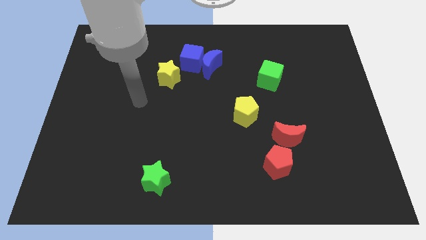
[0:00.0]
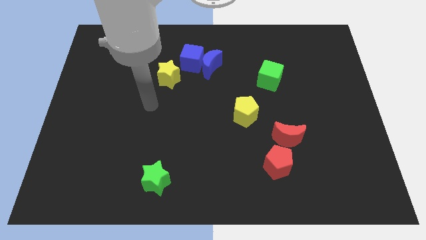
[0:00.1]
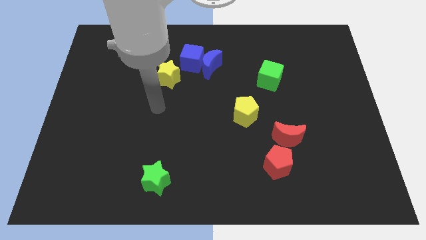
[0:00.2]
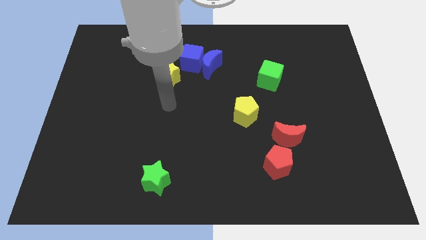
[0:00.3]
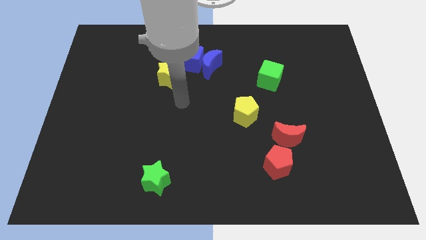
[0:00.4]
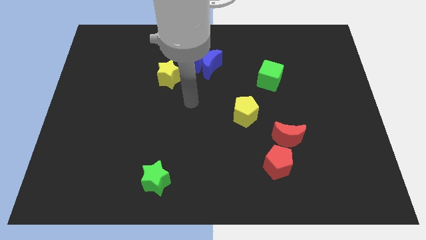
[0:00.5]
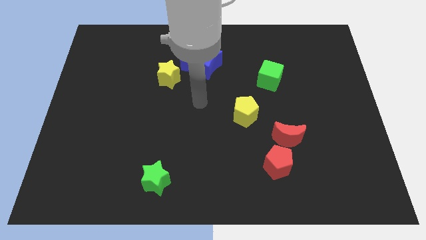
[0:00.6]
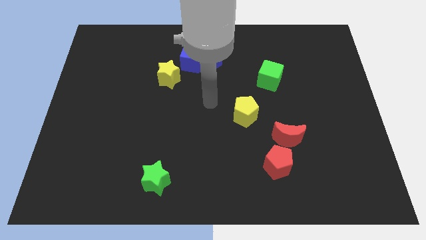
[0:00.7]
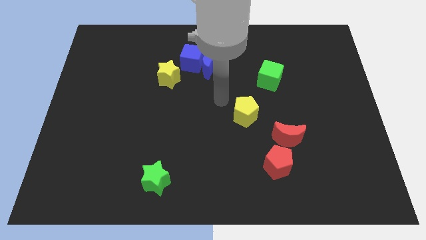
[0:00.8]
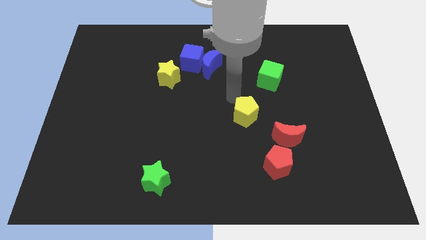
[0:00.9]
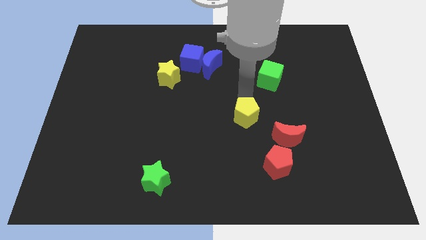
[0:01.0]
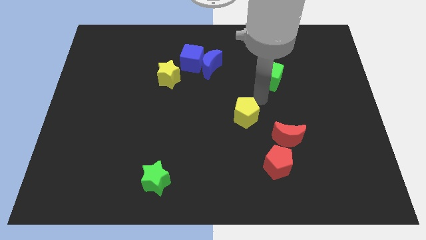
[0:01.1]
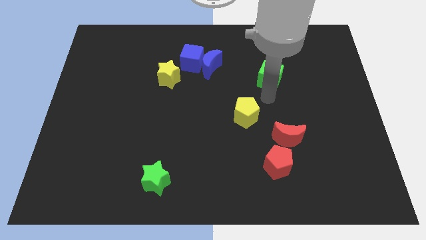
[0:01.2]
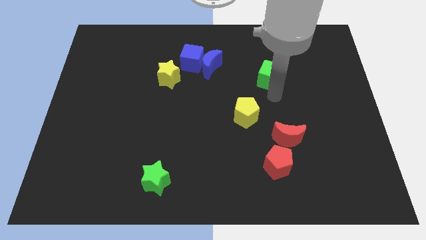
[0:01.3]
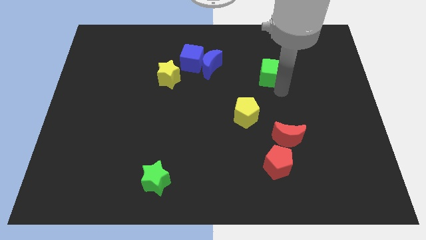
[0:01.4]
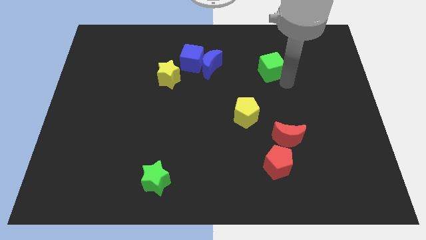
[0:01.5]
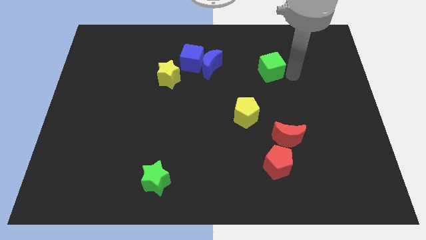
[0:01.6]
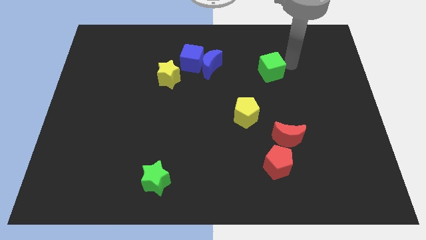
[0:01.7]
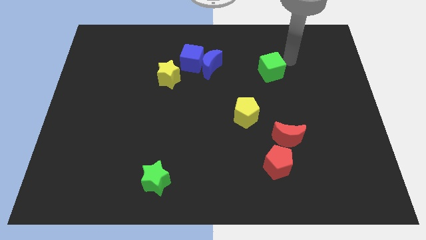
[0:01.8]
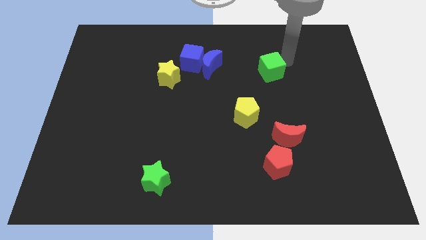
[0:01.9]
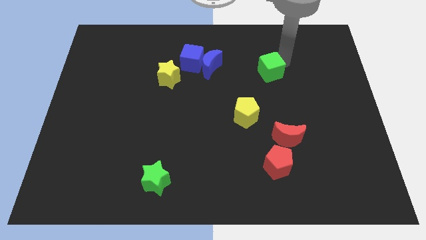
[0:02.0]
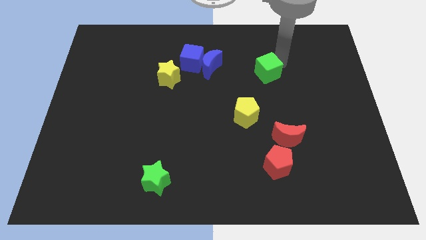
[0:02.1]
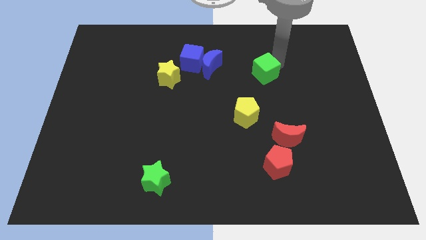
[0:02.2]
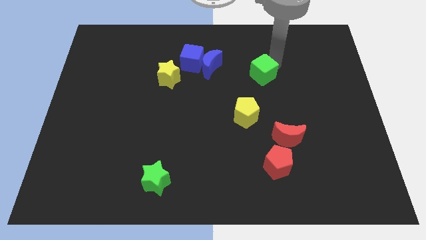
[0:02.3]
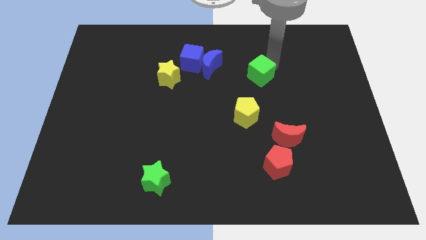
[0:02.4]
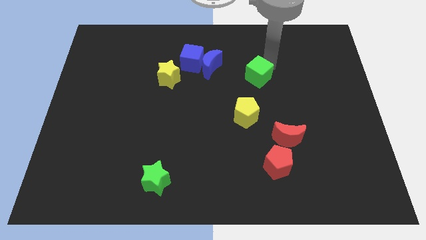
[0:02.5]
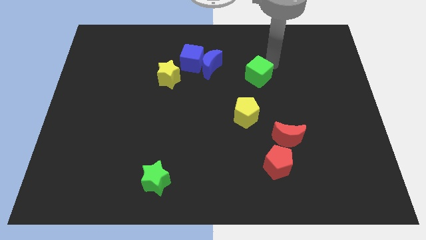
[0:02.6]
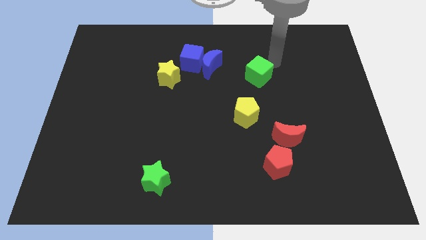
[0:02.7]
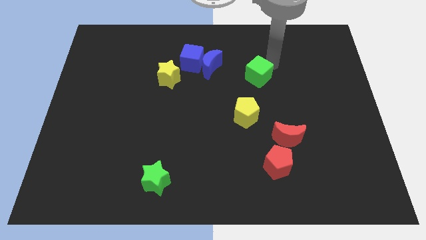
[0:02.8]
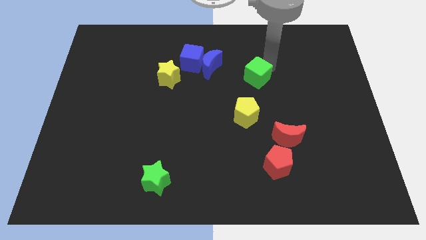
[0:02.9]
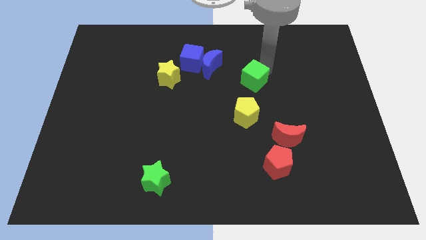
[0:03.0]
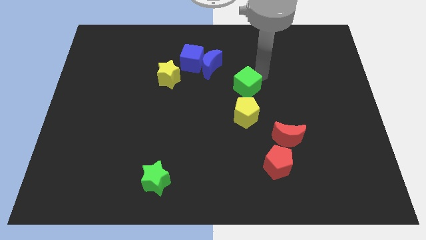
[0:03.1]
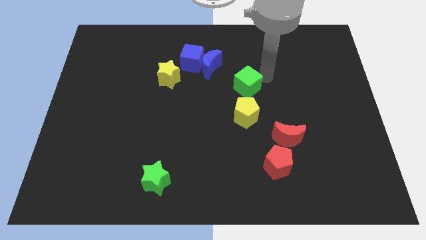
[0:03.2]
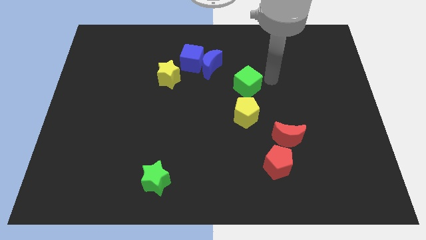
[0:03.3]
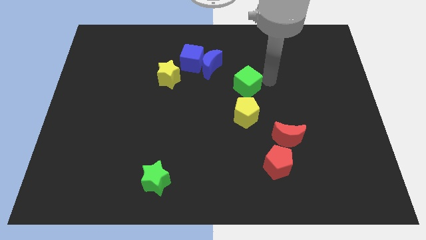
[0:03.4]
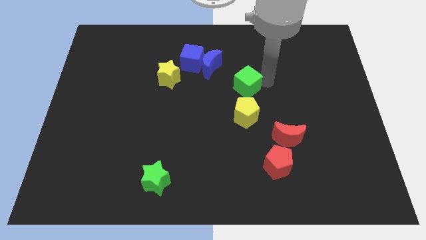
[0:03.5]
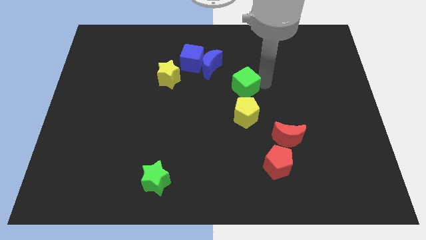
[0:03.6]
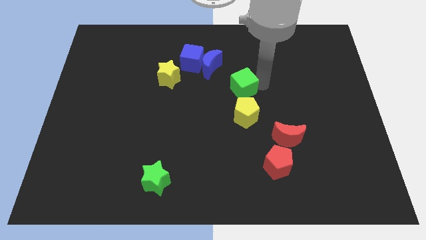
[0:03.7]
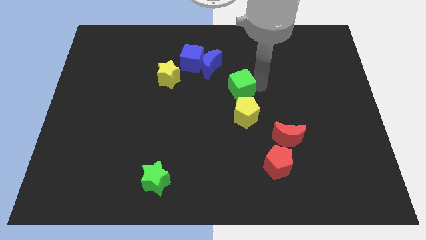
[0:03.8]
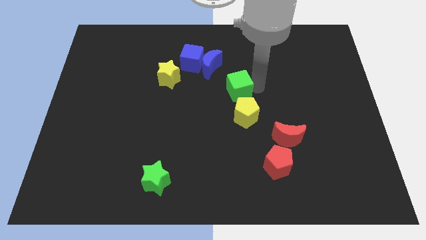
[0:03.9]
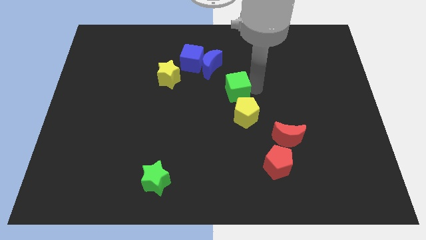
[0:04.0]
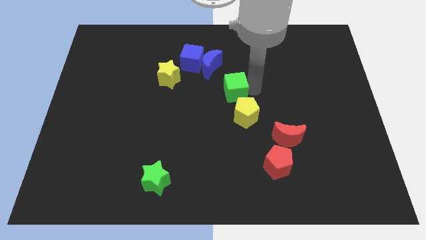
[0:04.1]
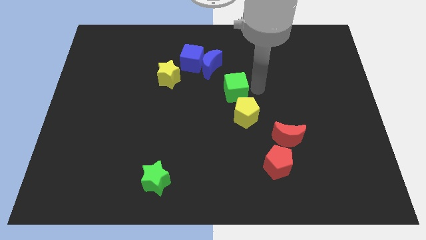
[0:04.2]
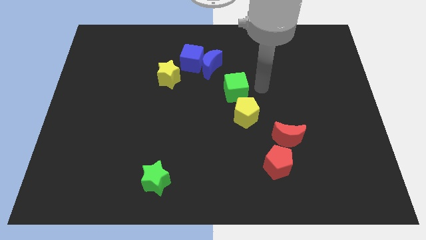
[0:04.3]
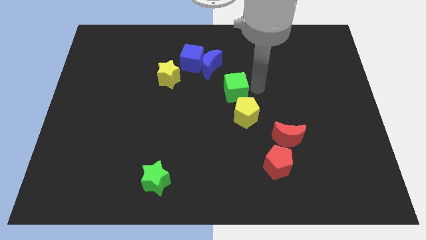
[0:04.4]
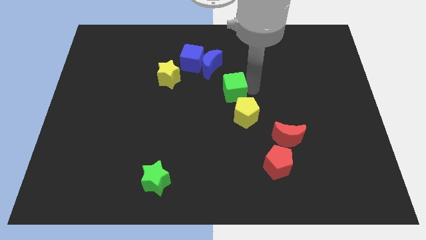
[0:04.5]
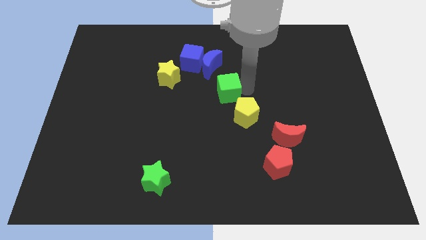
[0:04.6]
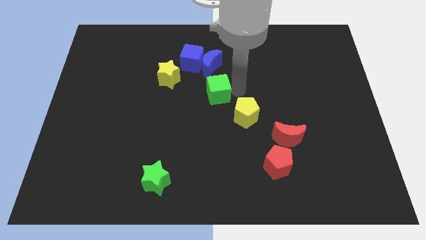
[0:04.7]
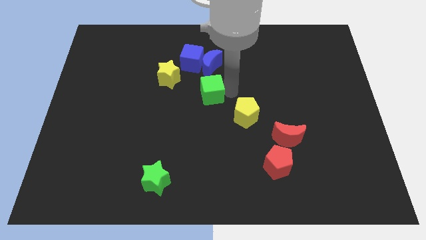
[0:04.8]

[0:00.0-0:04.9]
move the green cube to the bottom right of the yellow star

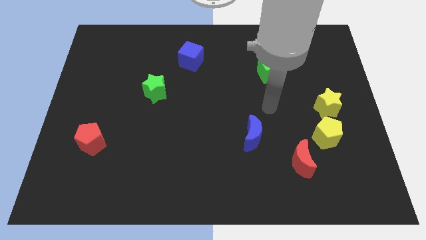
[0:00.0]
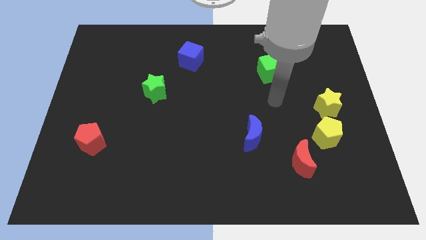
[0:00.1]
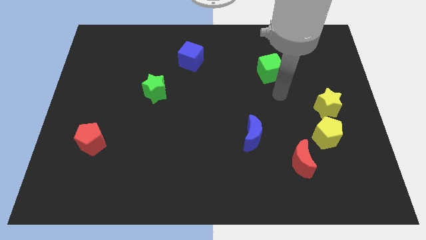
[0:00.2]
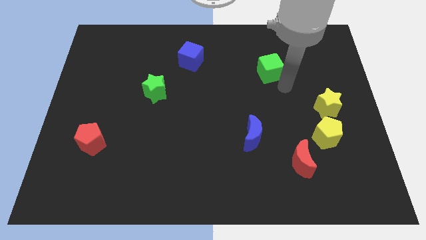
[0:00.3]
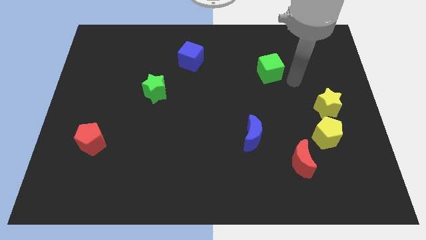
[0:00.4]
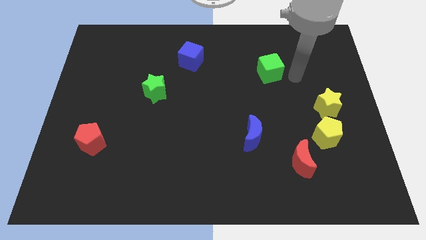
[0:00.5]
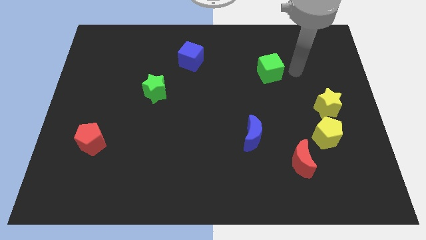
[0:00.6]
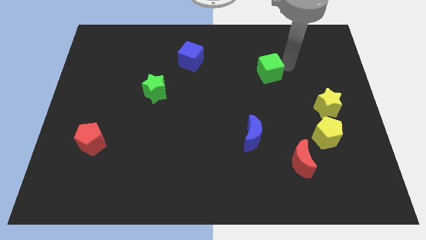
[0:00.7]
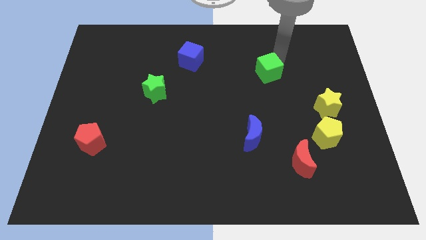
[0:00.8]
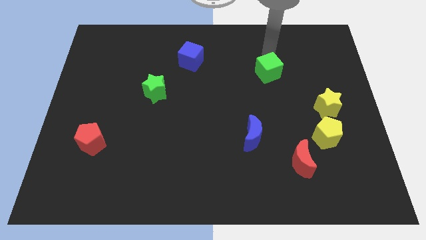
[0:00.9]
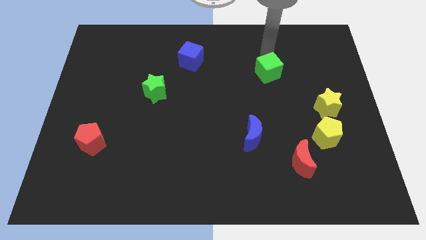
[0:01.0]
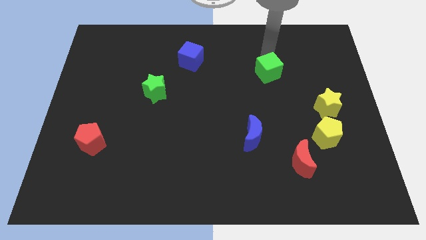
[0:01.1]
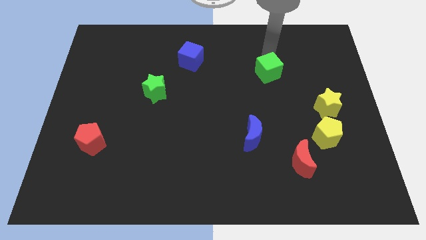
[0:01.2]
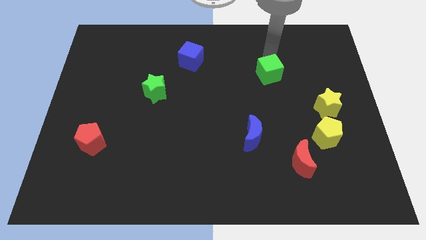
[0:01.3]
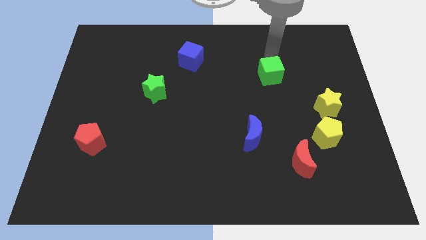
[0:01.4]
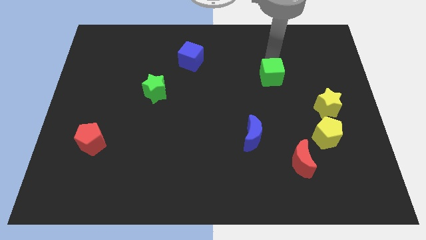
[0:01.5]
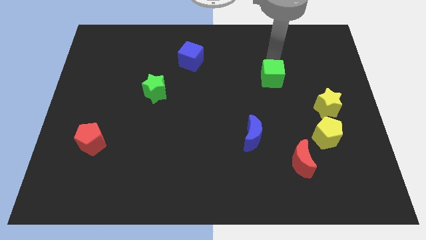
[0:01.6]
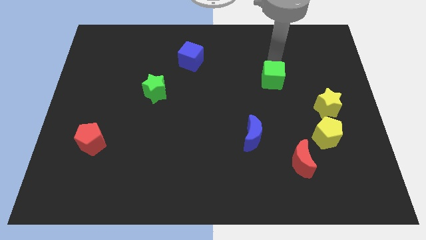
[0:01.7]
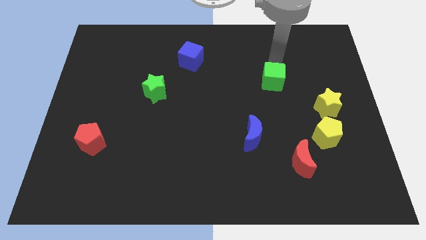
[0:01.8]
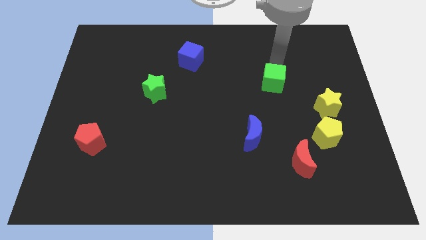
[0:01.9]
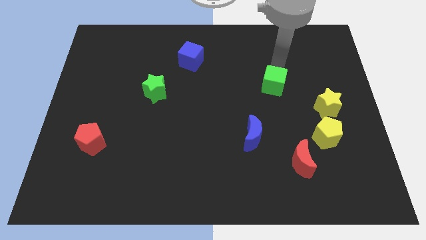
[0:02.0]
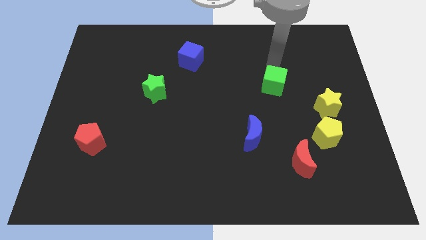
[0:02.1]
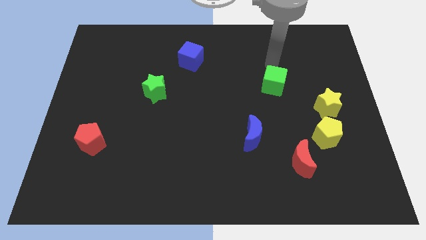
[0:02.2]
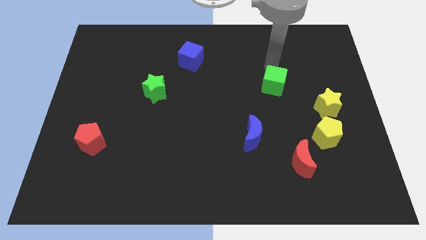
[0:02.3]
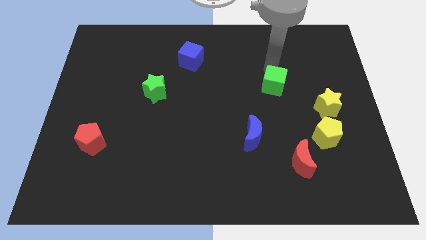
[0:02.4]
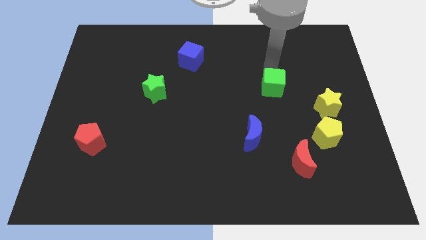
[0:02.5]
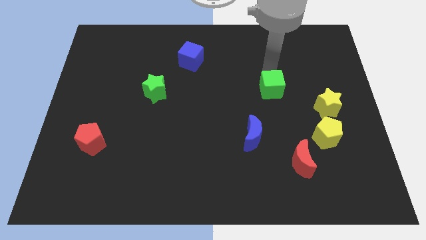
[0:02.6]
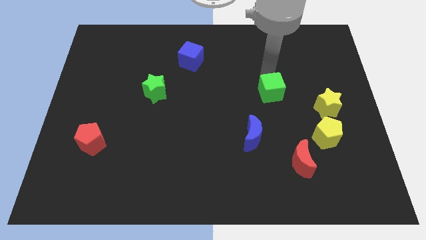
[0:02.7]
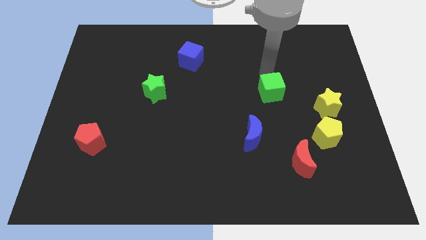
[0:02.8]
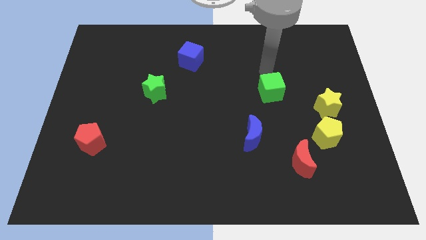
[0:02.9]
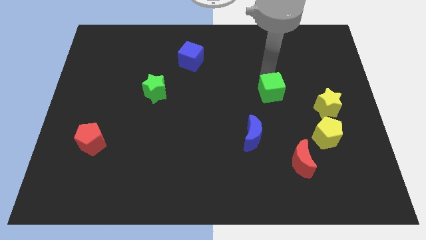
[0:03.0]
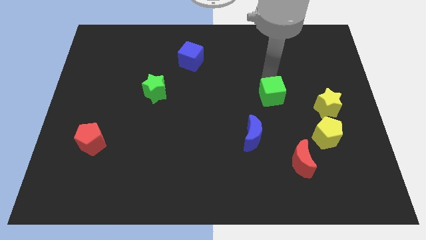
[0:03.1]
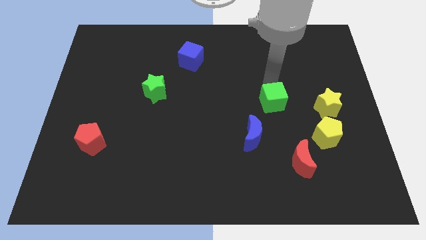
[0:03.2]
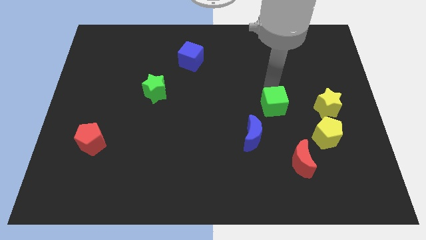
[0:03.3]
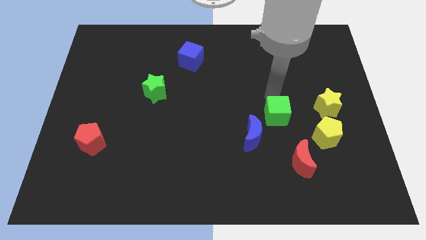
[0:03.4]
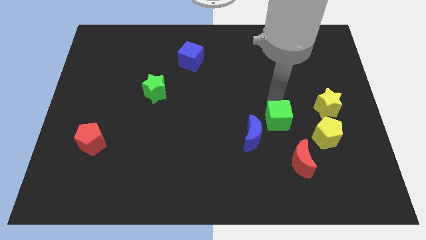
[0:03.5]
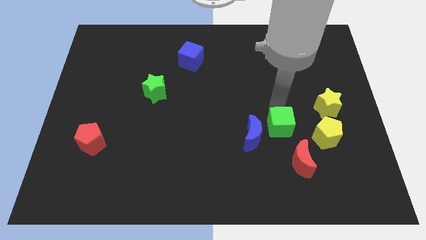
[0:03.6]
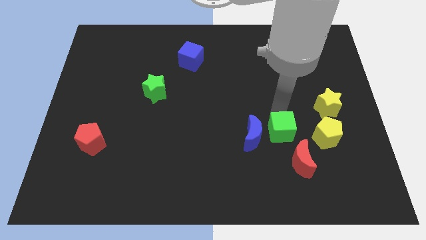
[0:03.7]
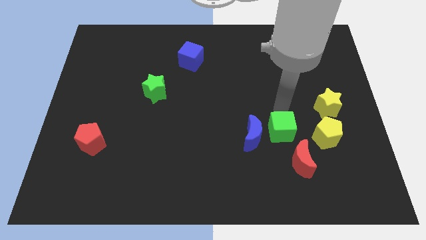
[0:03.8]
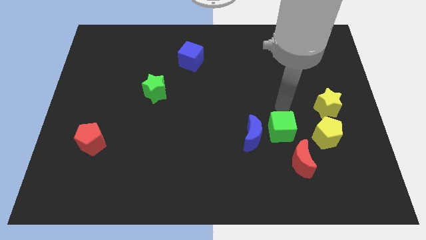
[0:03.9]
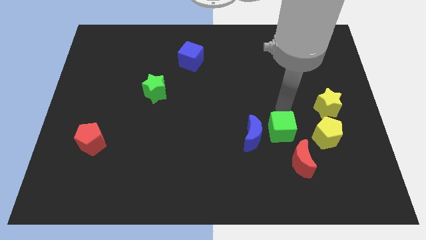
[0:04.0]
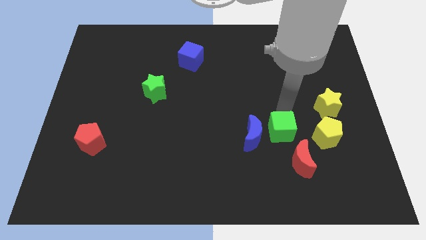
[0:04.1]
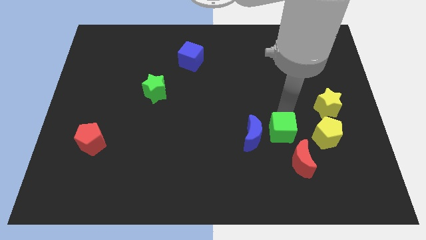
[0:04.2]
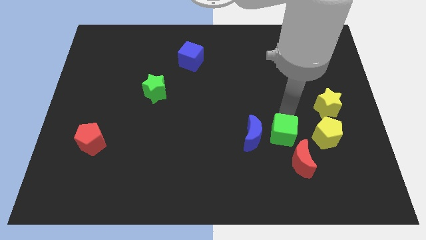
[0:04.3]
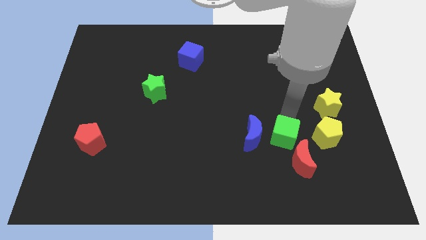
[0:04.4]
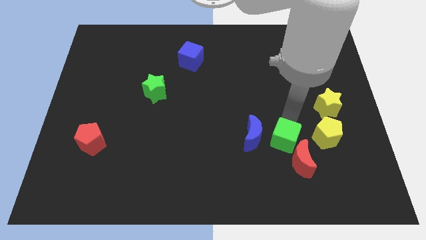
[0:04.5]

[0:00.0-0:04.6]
put the green cube diagonally down and to the right of the blue moon
